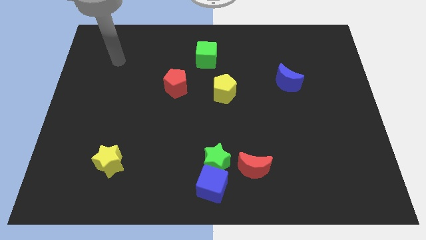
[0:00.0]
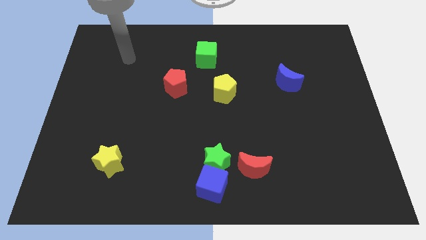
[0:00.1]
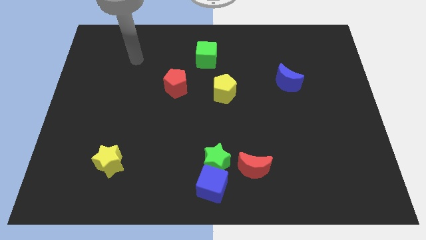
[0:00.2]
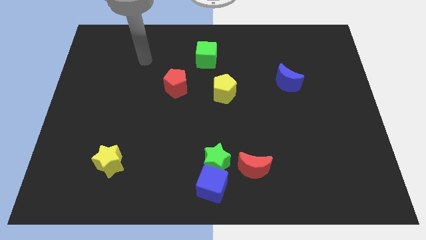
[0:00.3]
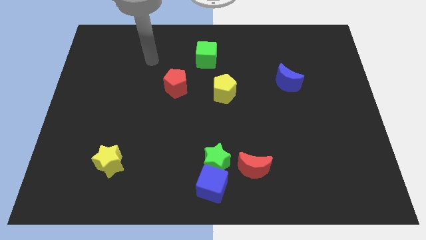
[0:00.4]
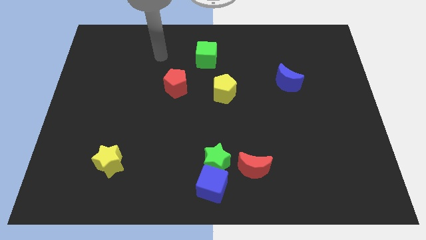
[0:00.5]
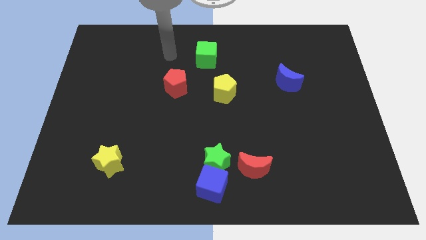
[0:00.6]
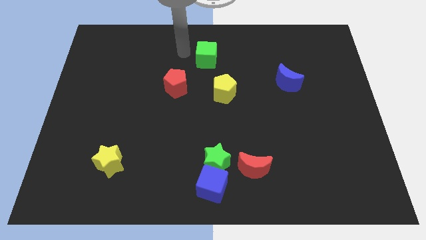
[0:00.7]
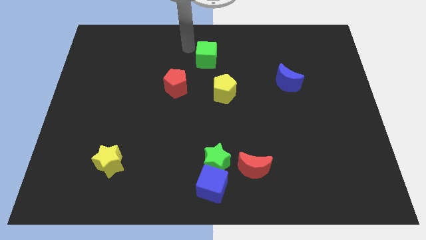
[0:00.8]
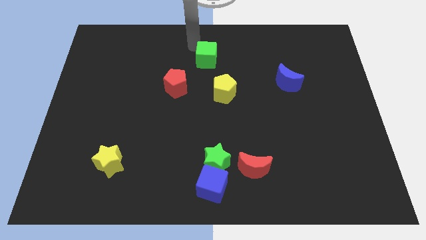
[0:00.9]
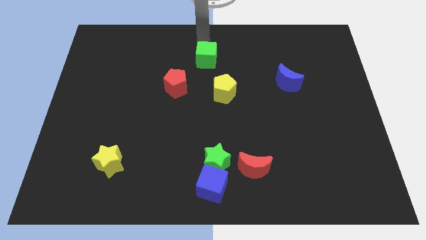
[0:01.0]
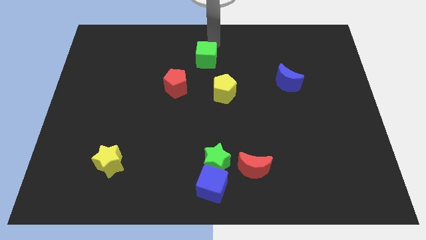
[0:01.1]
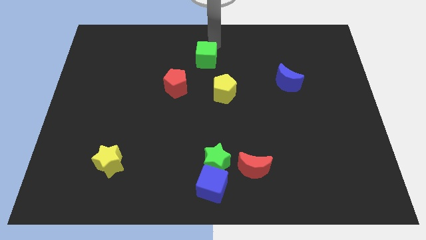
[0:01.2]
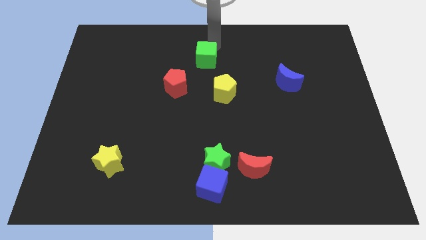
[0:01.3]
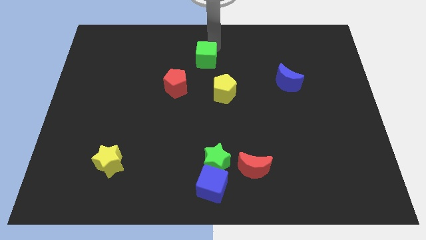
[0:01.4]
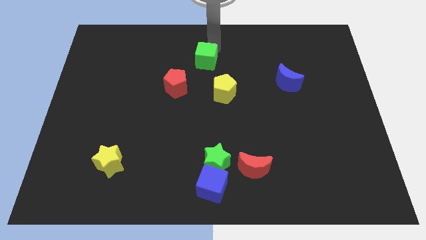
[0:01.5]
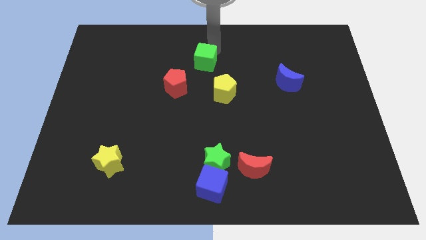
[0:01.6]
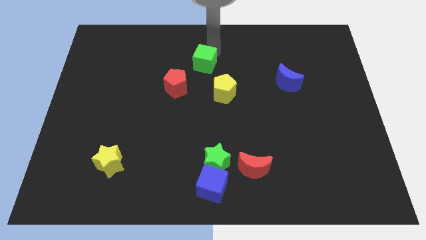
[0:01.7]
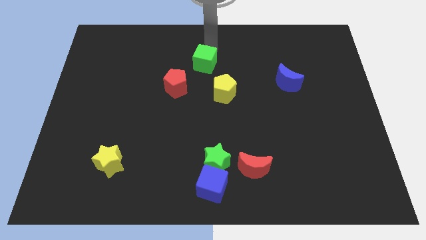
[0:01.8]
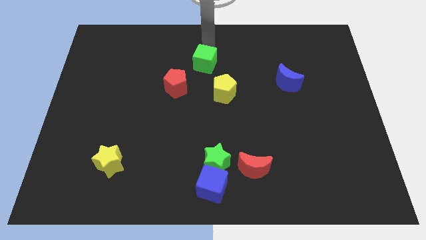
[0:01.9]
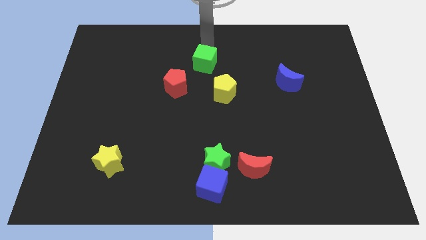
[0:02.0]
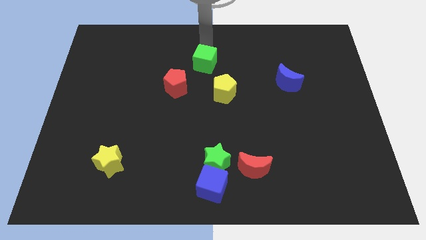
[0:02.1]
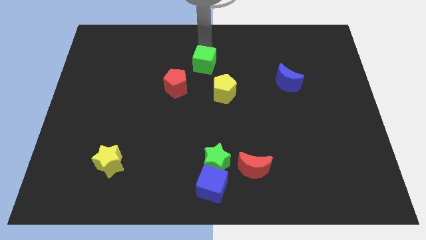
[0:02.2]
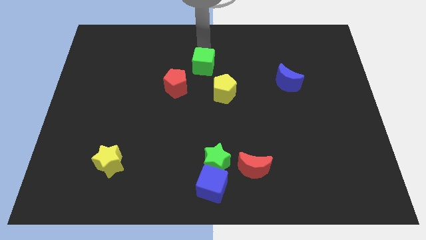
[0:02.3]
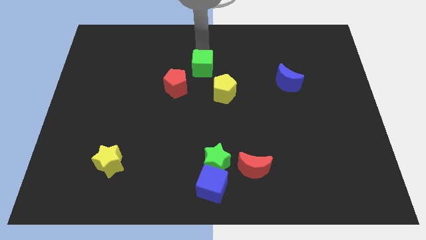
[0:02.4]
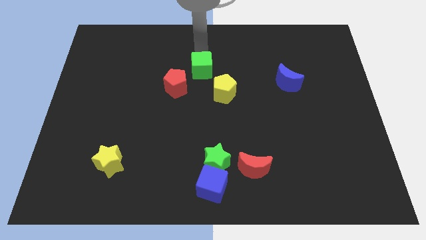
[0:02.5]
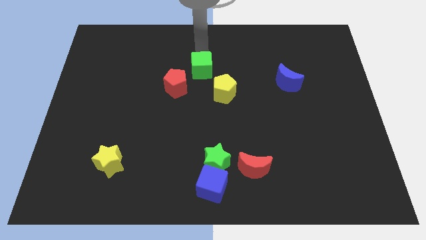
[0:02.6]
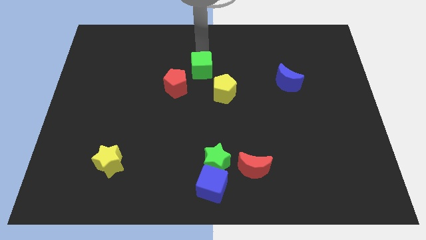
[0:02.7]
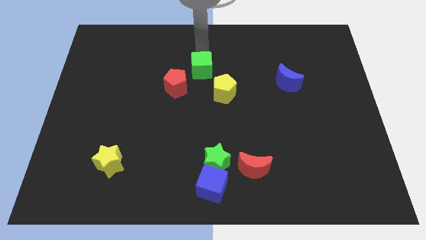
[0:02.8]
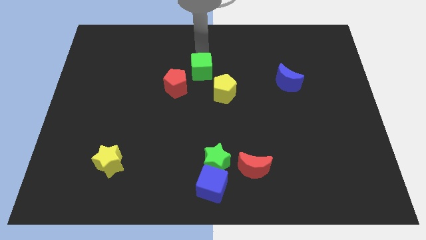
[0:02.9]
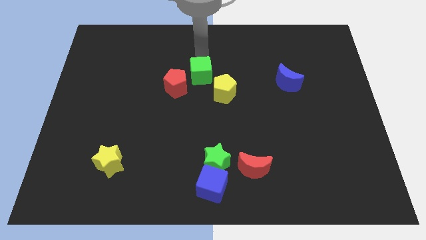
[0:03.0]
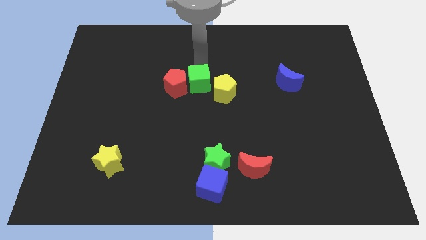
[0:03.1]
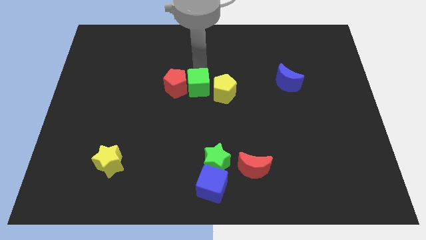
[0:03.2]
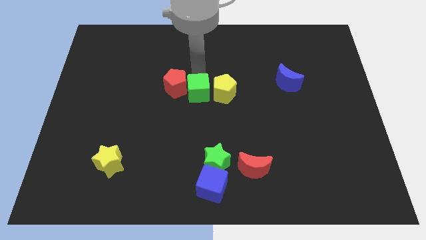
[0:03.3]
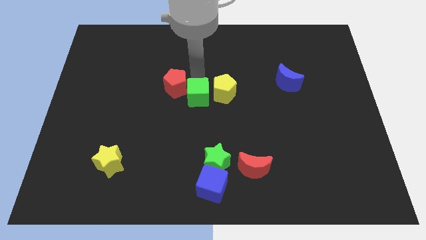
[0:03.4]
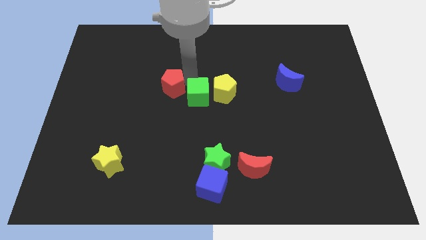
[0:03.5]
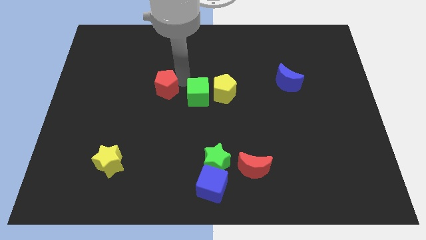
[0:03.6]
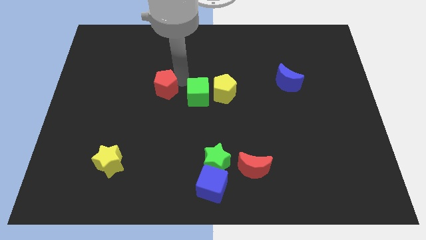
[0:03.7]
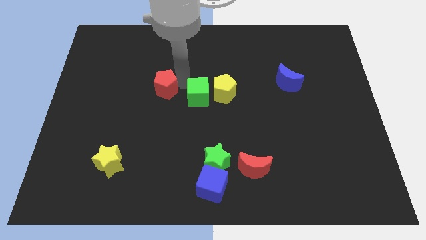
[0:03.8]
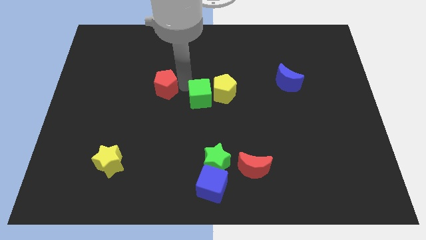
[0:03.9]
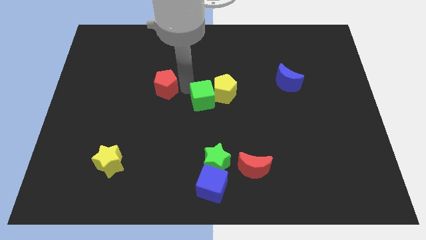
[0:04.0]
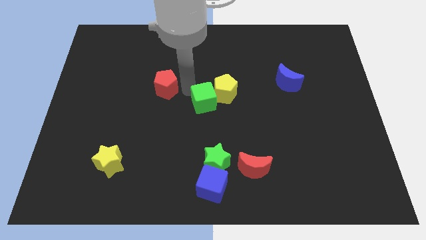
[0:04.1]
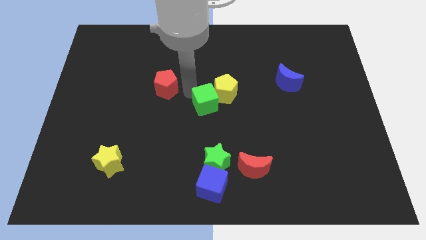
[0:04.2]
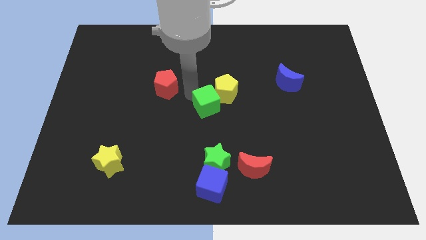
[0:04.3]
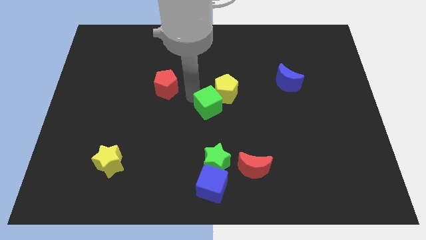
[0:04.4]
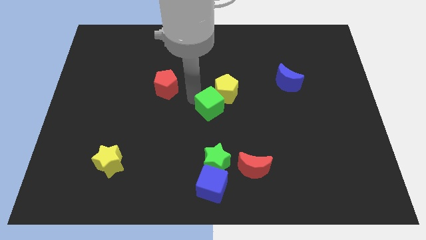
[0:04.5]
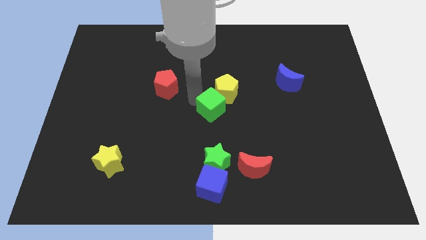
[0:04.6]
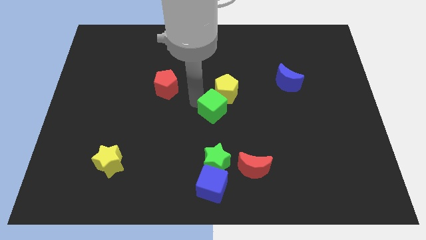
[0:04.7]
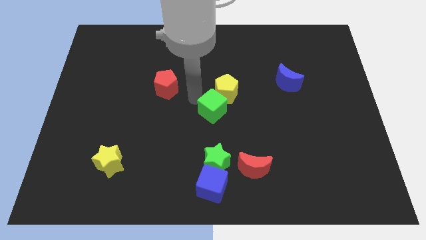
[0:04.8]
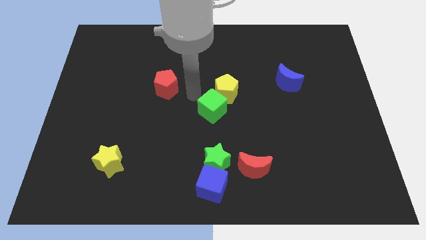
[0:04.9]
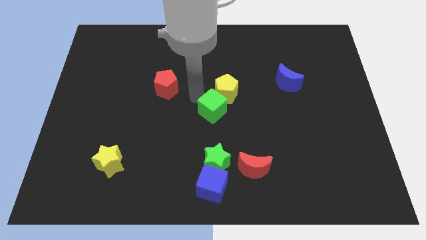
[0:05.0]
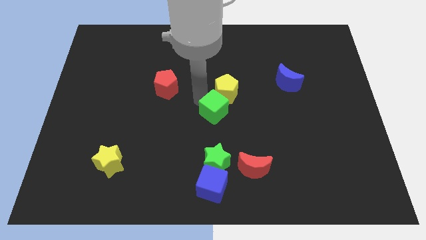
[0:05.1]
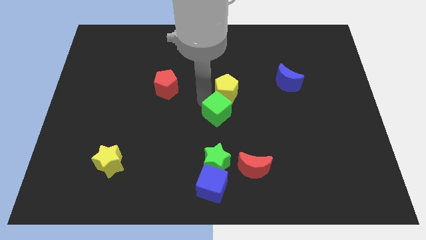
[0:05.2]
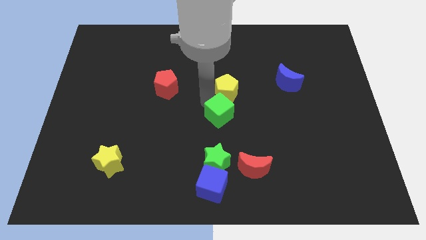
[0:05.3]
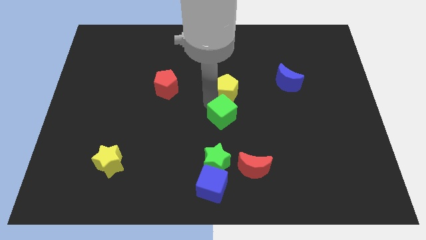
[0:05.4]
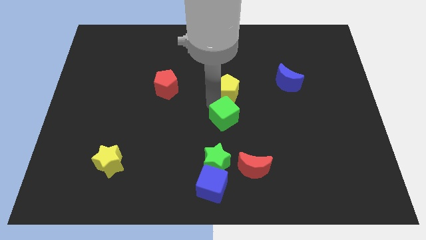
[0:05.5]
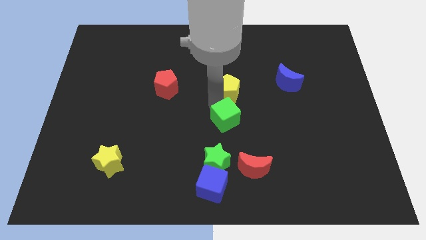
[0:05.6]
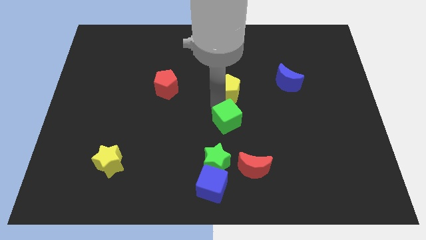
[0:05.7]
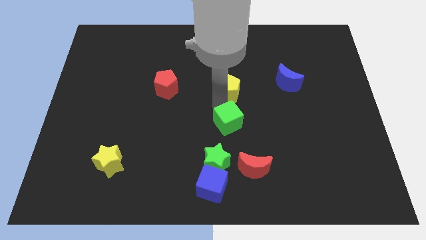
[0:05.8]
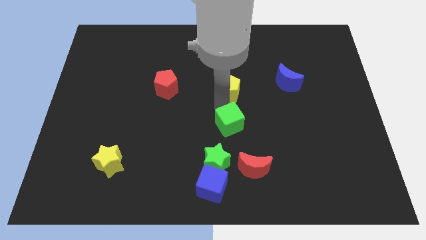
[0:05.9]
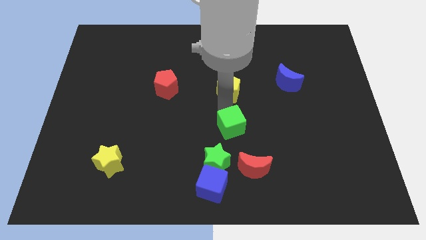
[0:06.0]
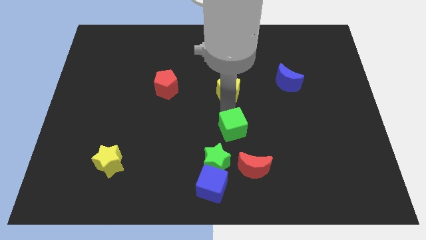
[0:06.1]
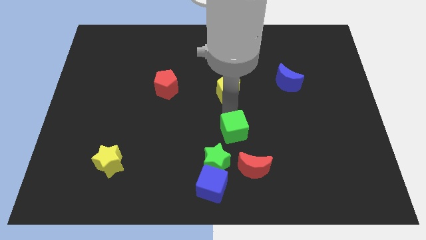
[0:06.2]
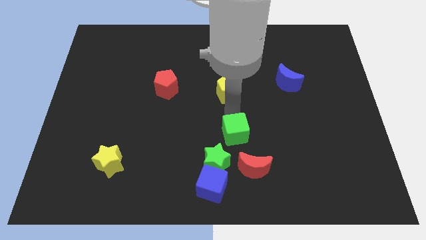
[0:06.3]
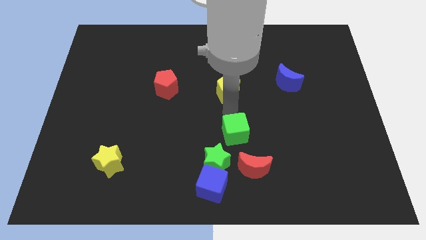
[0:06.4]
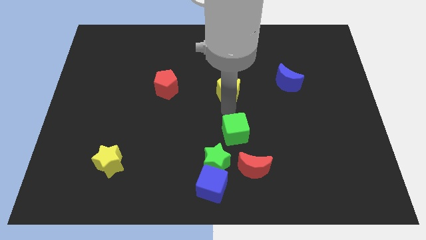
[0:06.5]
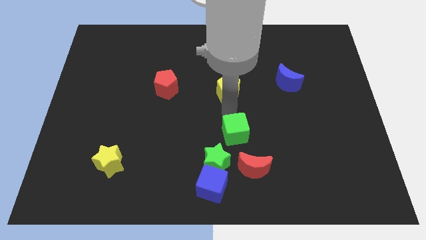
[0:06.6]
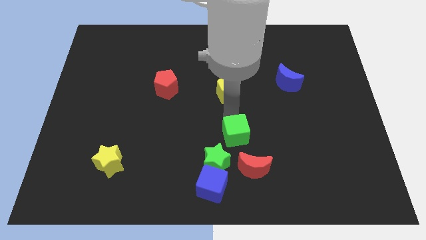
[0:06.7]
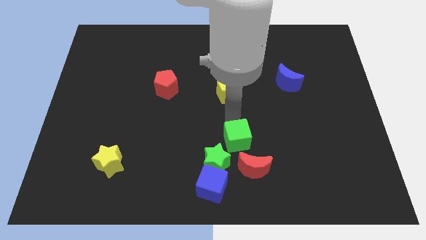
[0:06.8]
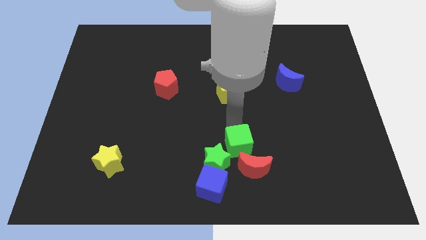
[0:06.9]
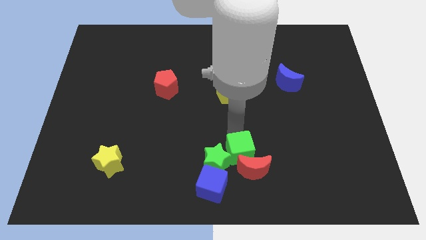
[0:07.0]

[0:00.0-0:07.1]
put the green cube close to the red moon
